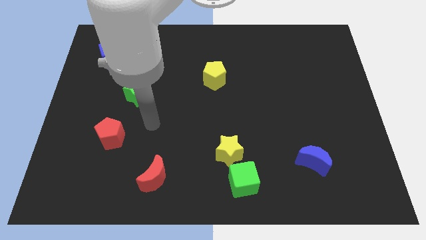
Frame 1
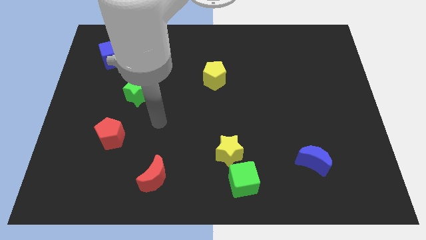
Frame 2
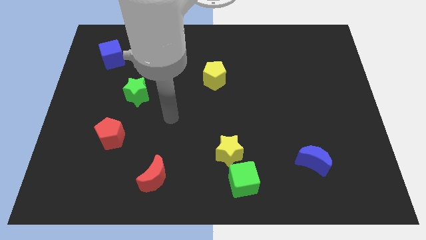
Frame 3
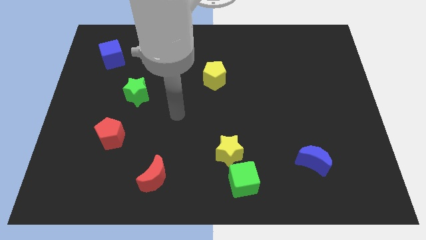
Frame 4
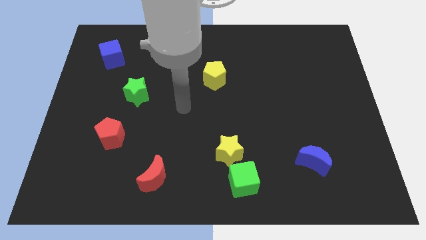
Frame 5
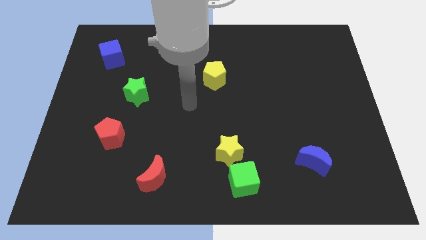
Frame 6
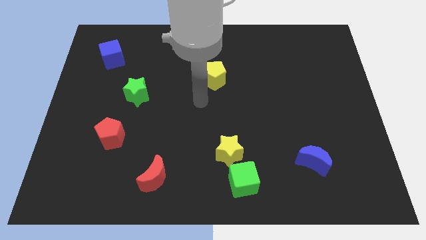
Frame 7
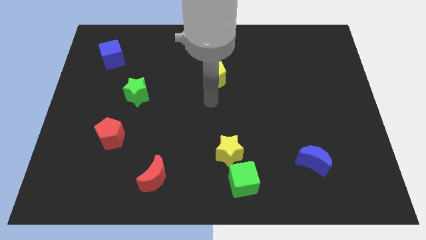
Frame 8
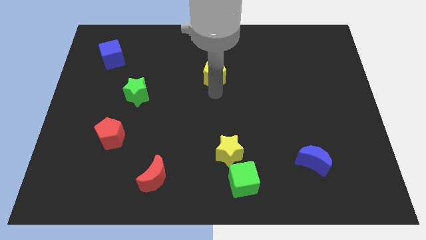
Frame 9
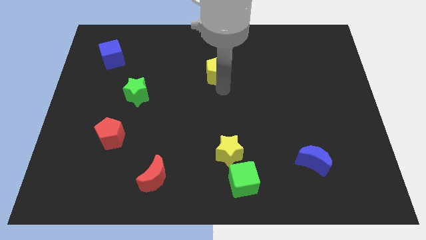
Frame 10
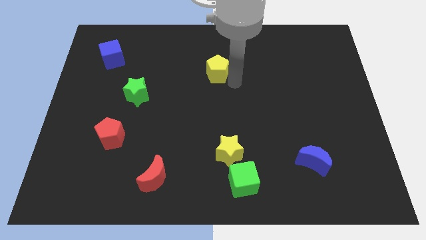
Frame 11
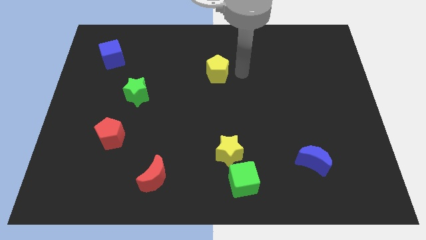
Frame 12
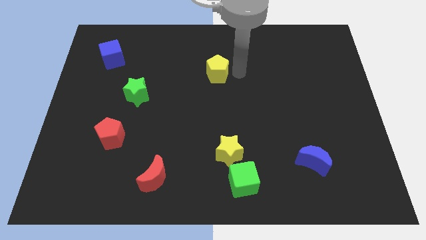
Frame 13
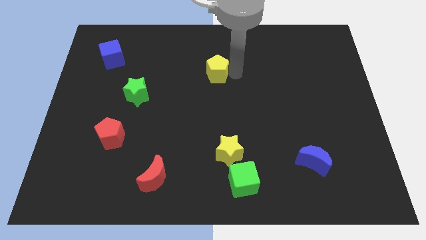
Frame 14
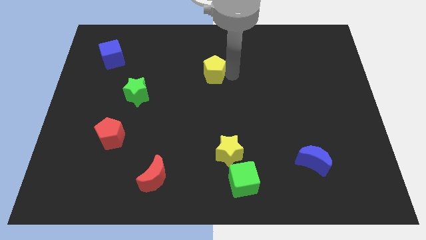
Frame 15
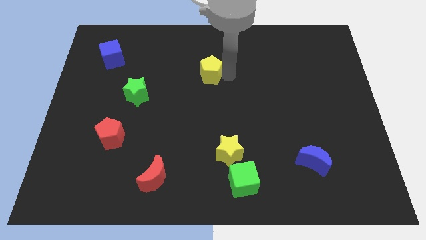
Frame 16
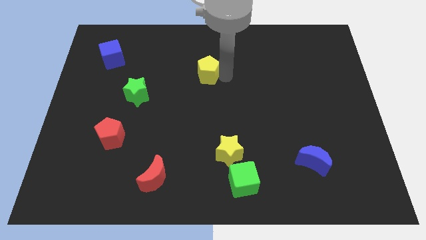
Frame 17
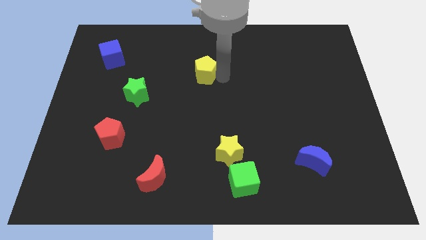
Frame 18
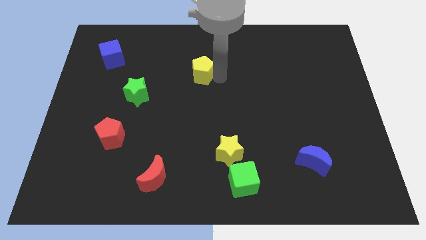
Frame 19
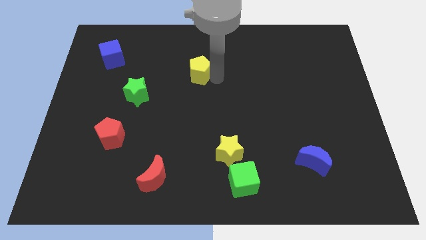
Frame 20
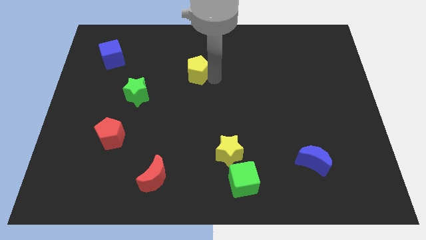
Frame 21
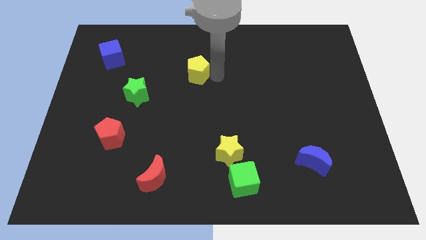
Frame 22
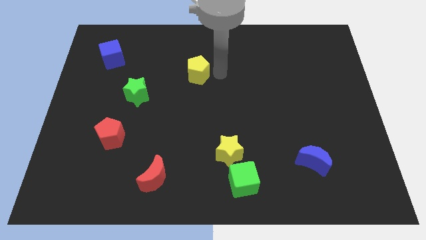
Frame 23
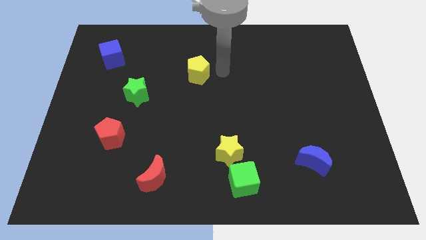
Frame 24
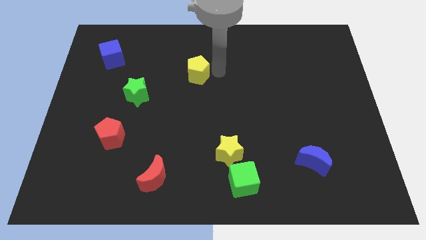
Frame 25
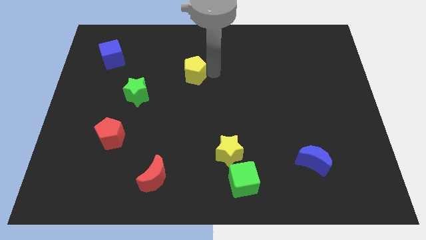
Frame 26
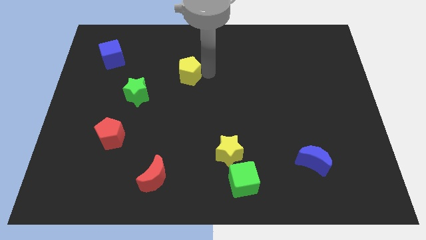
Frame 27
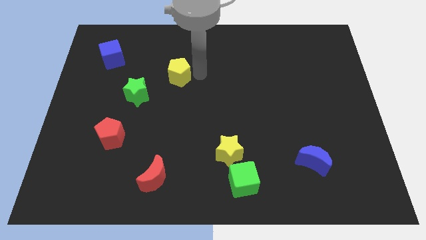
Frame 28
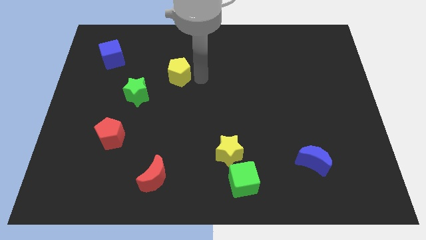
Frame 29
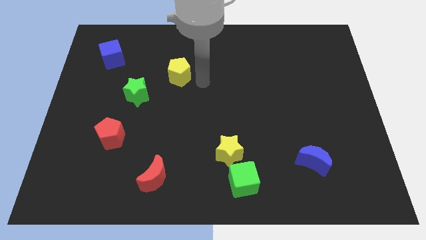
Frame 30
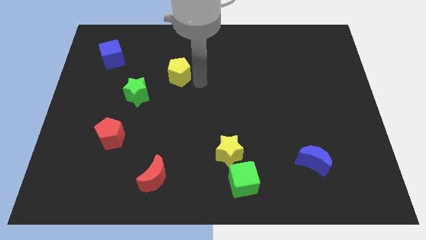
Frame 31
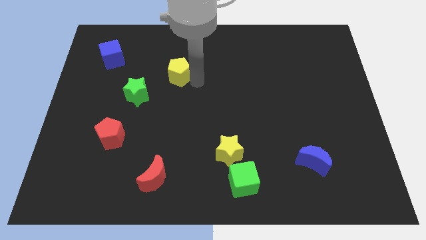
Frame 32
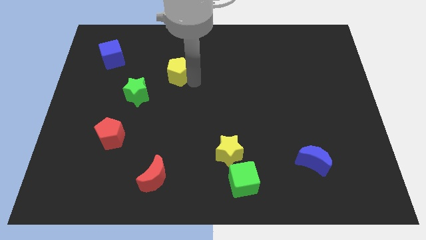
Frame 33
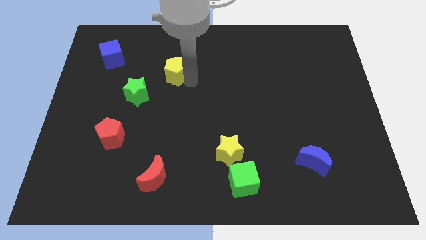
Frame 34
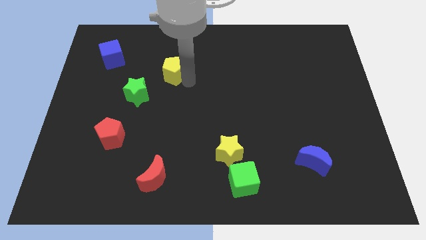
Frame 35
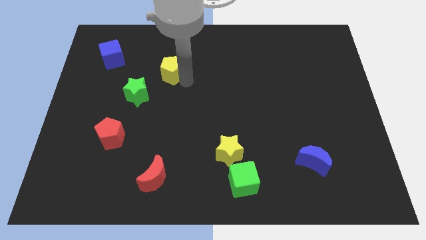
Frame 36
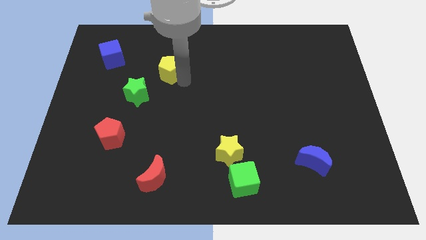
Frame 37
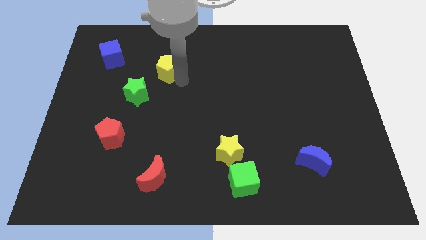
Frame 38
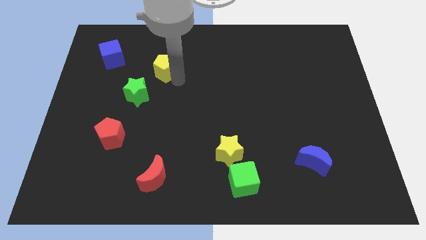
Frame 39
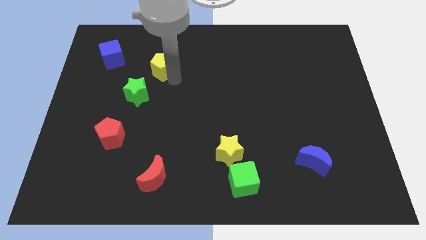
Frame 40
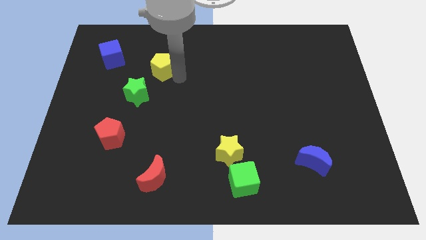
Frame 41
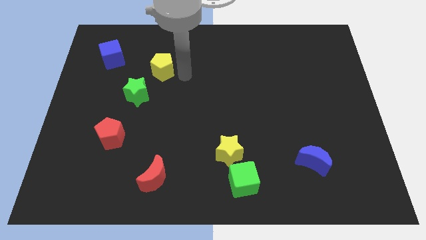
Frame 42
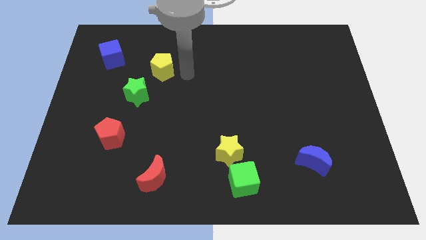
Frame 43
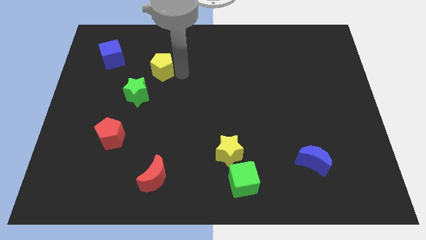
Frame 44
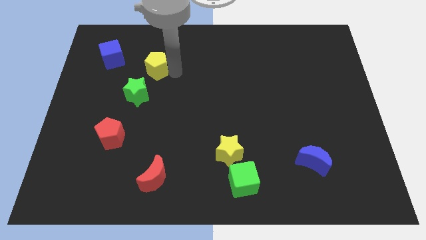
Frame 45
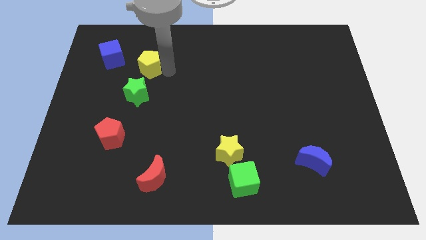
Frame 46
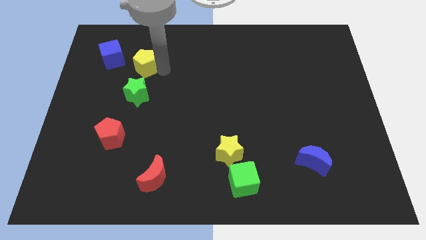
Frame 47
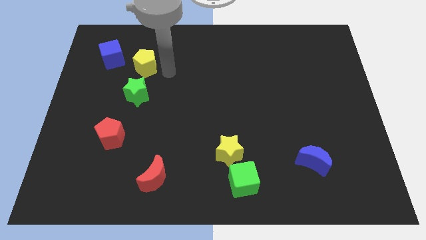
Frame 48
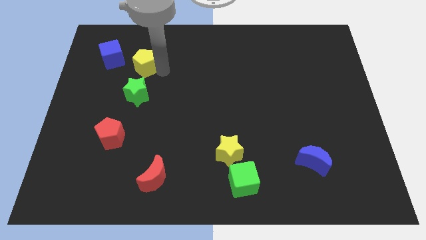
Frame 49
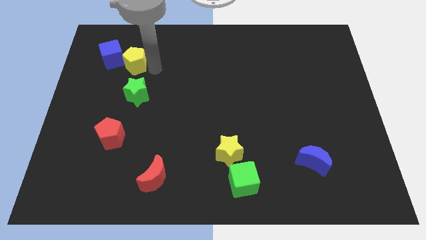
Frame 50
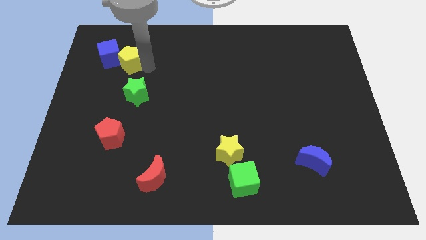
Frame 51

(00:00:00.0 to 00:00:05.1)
push the yellow pentagon to the blue cube

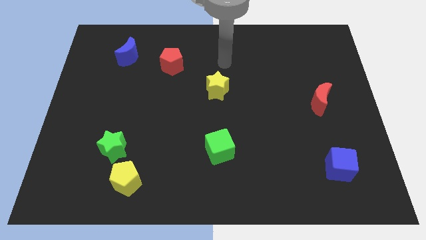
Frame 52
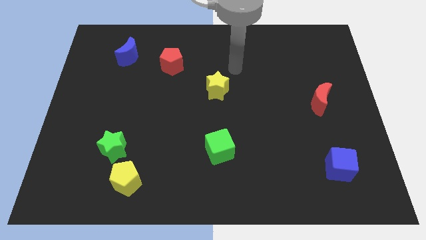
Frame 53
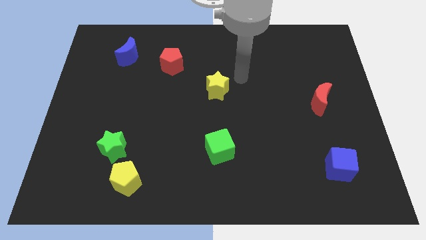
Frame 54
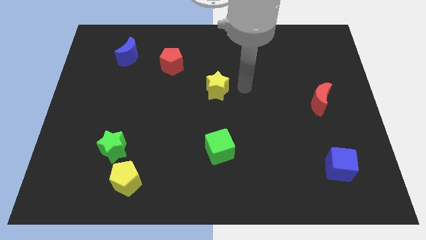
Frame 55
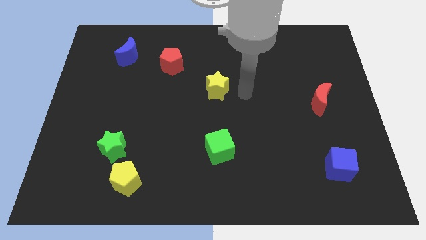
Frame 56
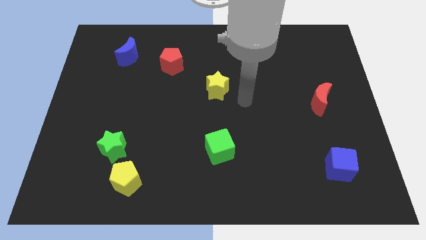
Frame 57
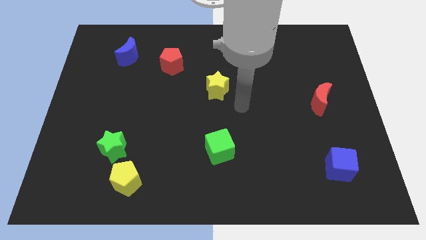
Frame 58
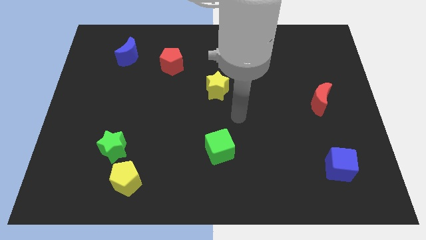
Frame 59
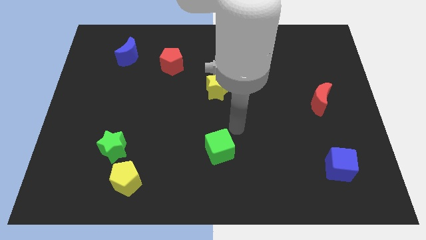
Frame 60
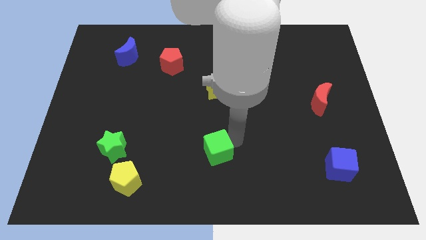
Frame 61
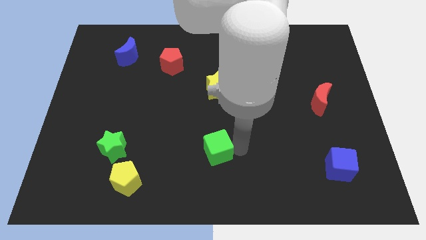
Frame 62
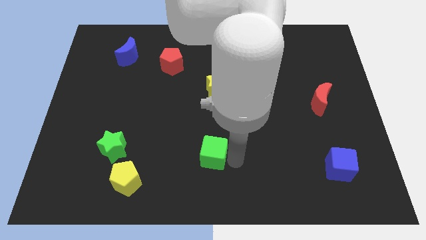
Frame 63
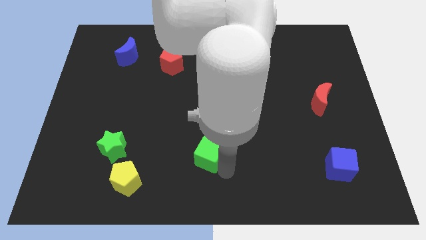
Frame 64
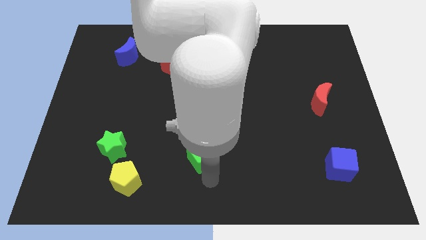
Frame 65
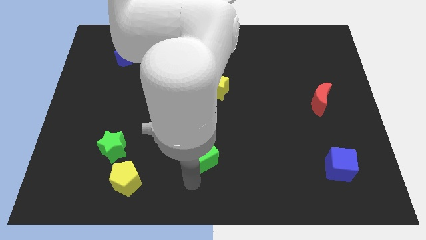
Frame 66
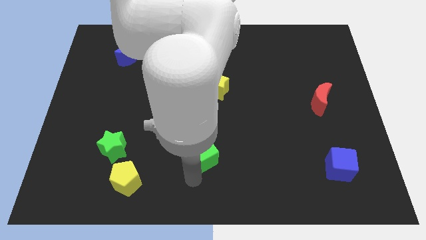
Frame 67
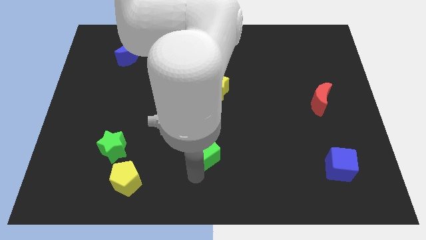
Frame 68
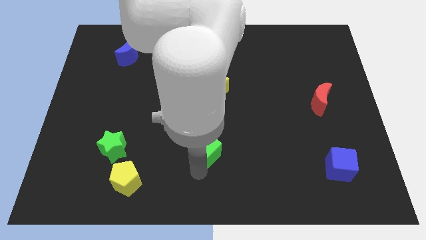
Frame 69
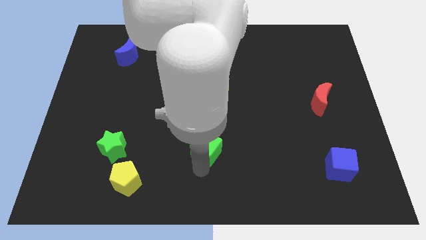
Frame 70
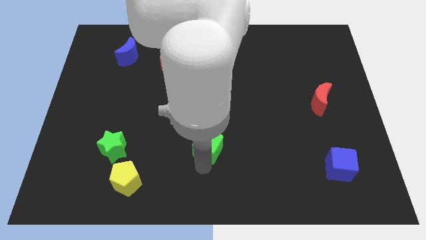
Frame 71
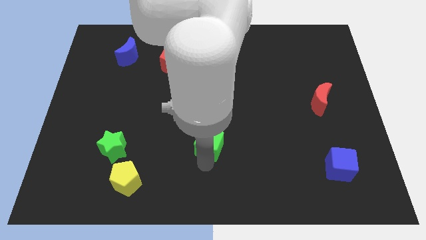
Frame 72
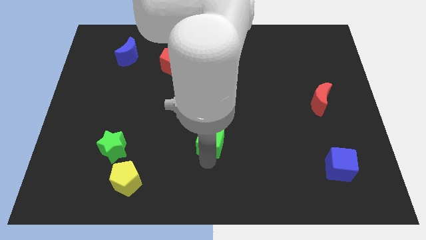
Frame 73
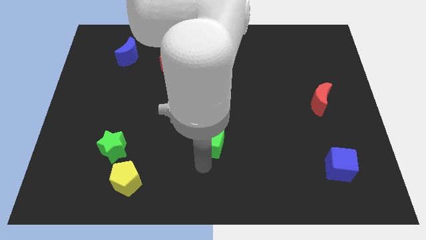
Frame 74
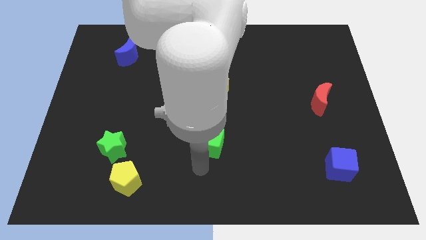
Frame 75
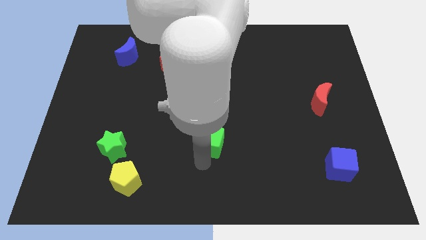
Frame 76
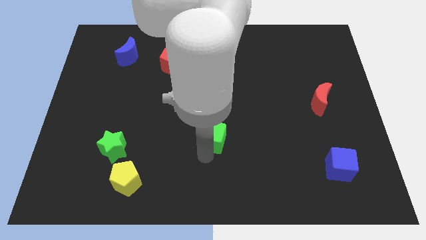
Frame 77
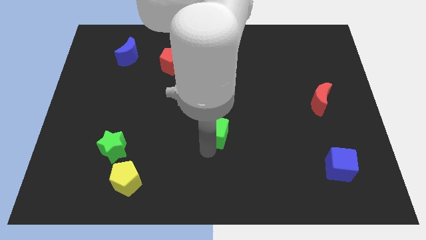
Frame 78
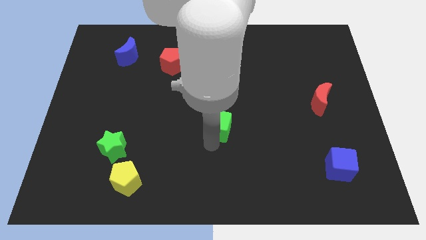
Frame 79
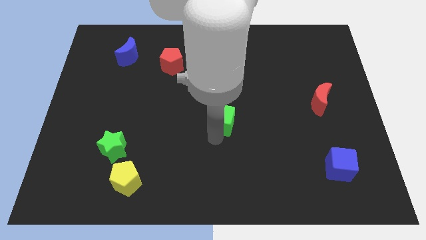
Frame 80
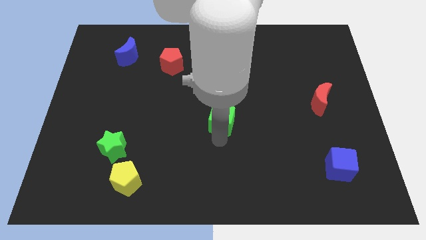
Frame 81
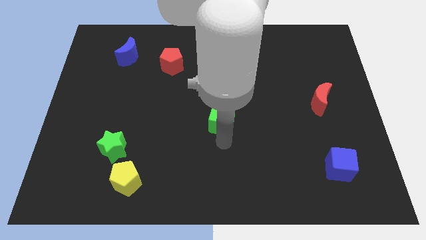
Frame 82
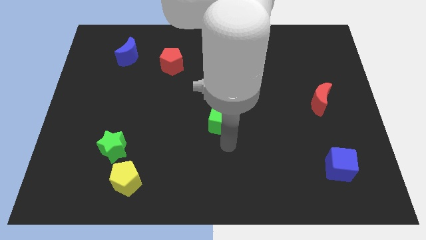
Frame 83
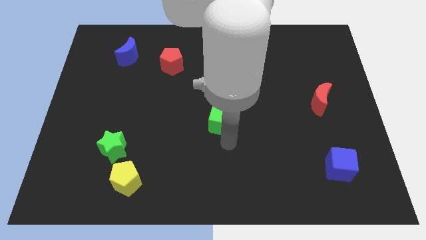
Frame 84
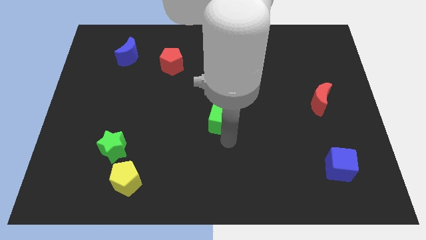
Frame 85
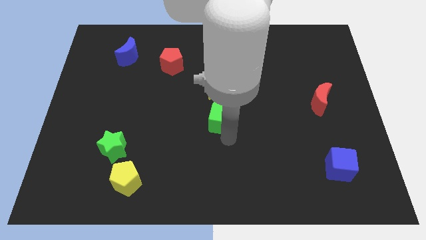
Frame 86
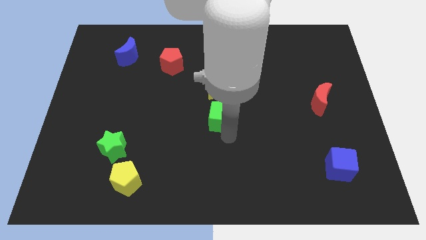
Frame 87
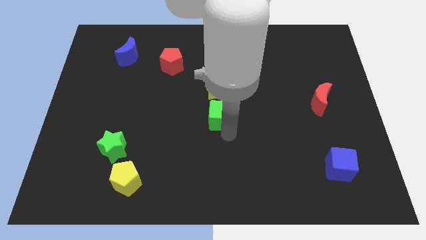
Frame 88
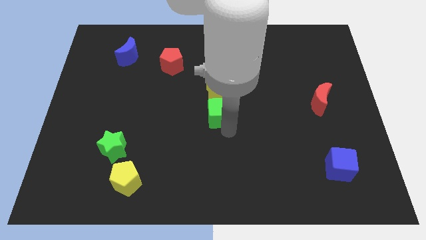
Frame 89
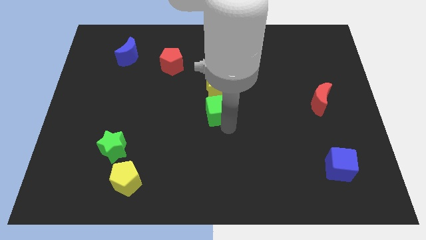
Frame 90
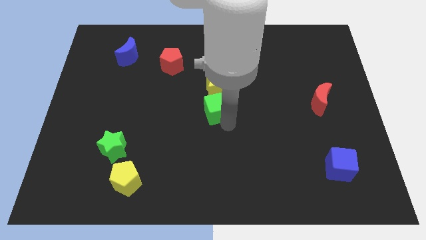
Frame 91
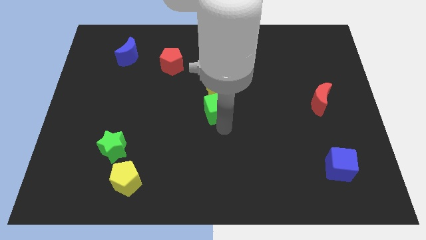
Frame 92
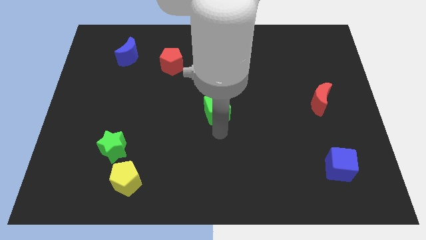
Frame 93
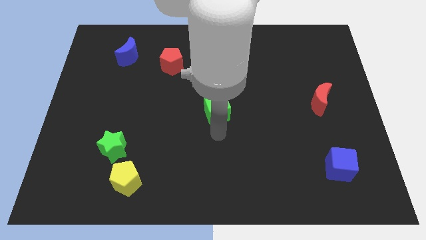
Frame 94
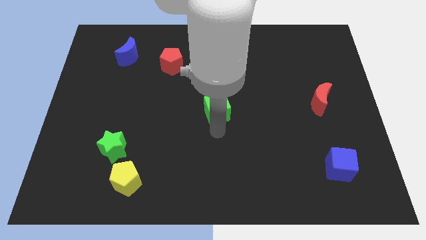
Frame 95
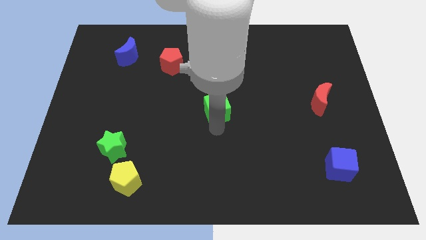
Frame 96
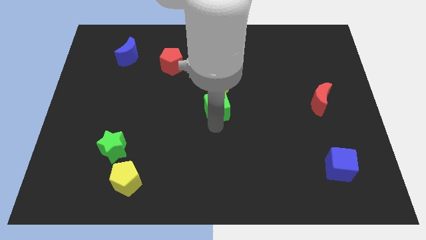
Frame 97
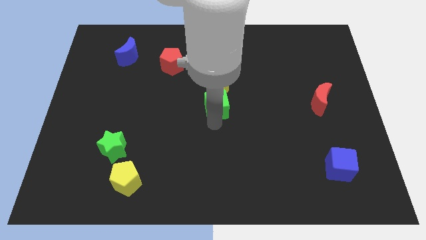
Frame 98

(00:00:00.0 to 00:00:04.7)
move the green cube towards the yellow star
